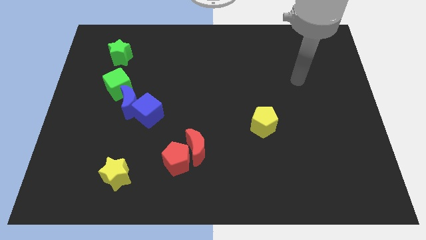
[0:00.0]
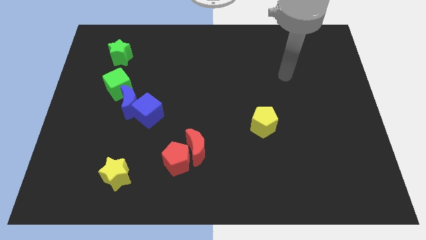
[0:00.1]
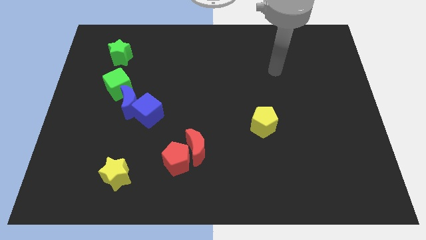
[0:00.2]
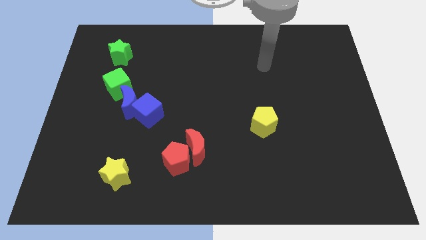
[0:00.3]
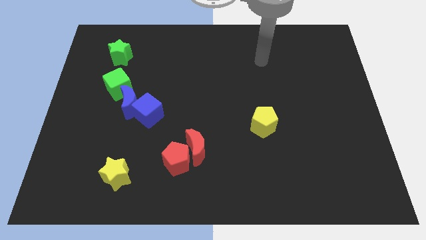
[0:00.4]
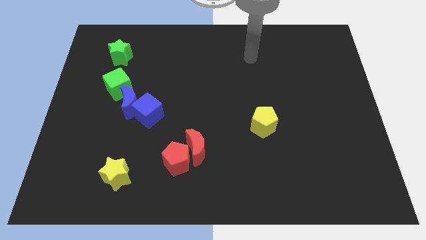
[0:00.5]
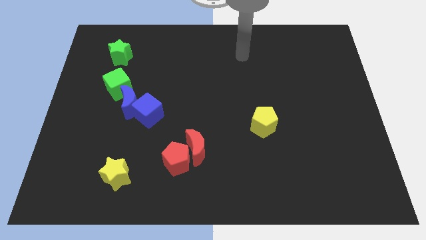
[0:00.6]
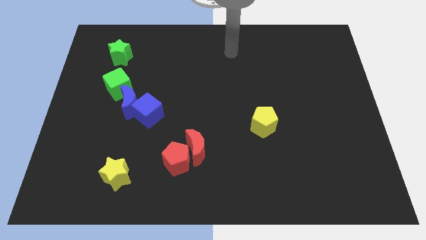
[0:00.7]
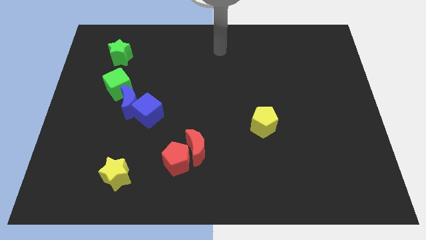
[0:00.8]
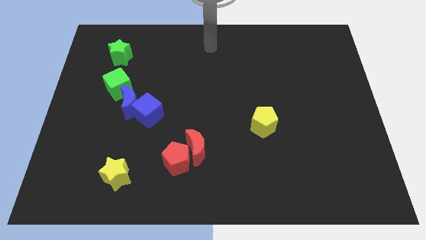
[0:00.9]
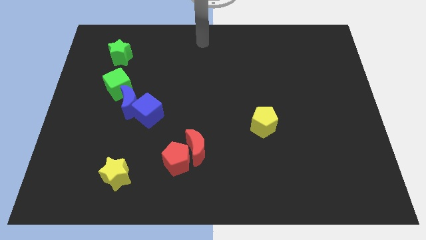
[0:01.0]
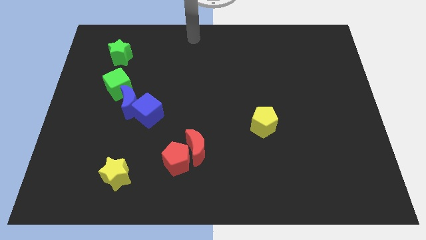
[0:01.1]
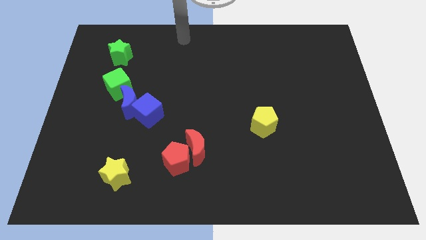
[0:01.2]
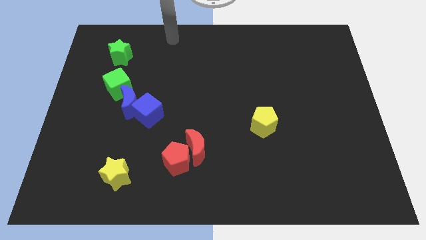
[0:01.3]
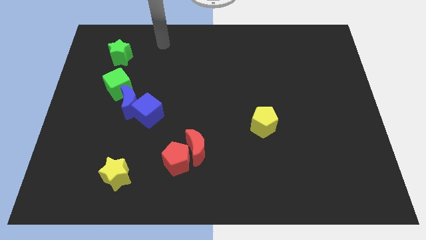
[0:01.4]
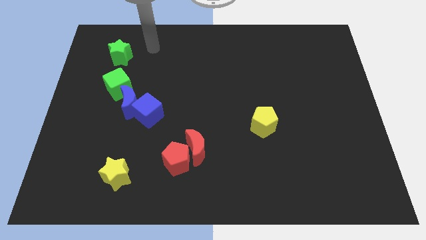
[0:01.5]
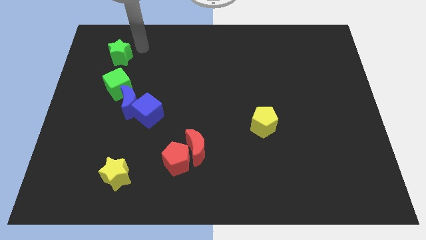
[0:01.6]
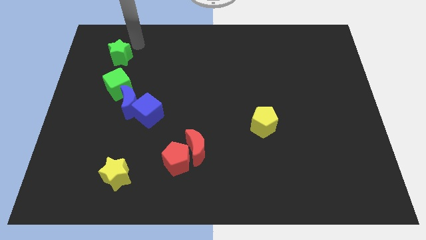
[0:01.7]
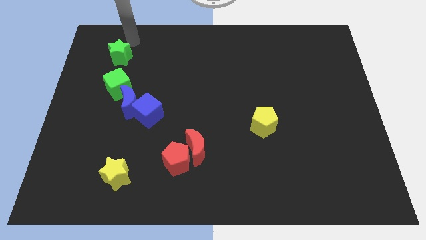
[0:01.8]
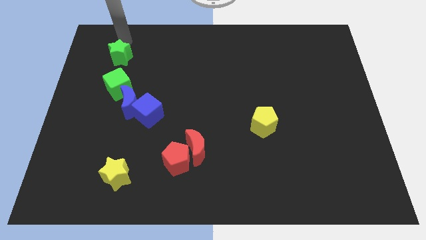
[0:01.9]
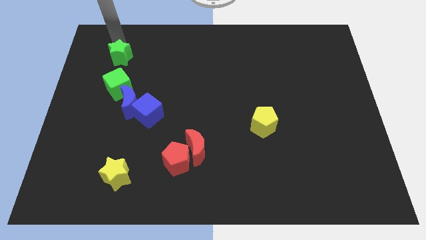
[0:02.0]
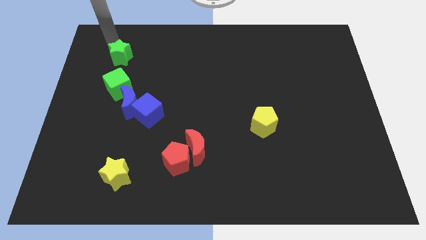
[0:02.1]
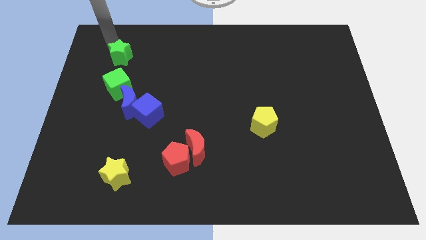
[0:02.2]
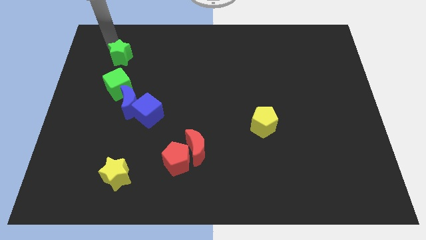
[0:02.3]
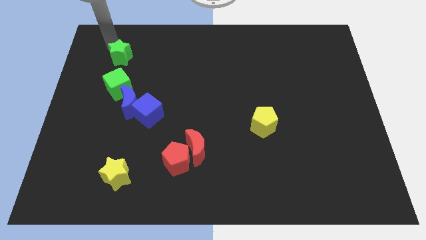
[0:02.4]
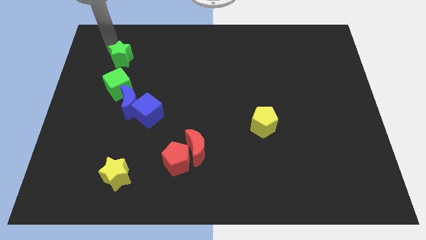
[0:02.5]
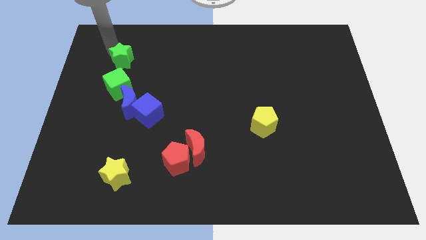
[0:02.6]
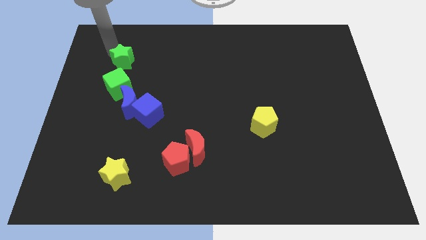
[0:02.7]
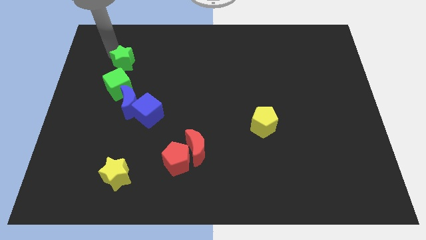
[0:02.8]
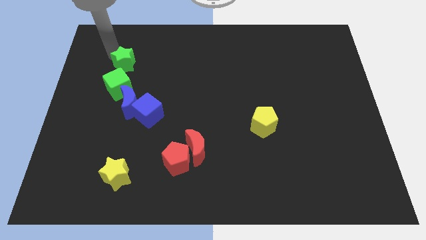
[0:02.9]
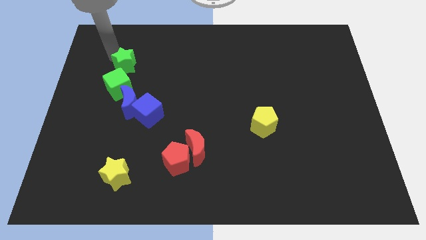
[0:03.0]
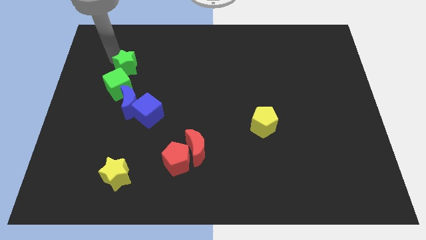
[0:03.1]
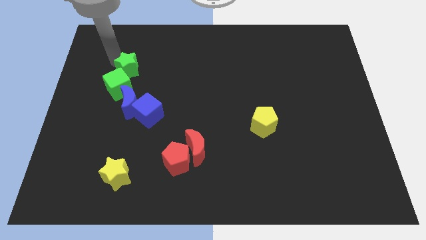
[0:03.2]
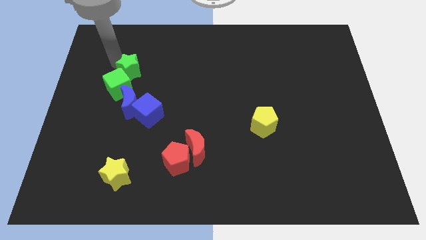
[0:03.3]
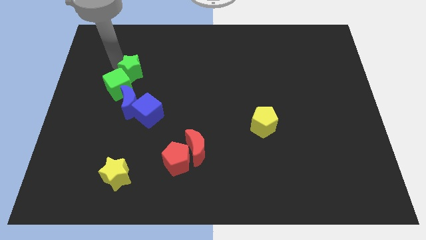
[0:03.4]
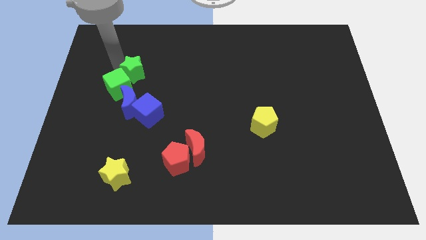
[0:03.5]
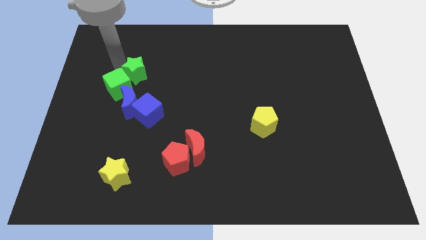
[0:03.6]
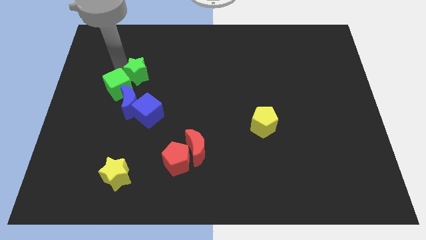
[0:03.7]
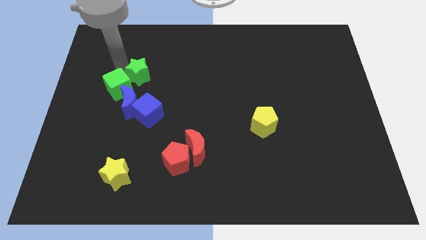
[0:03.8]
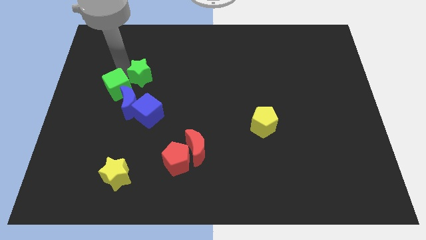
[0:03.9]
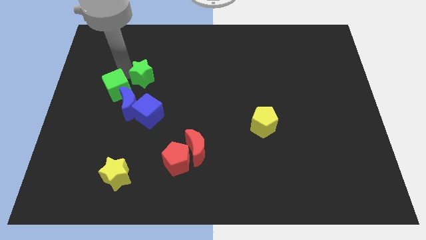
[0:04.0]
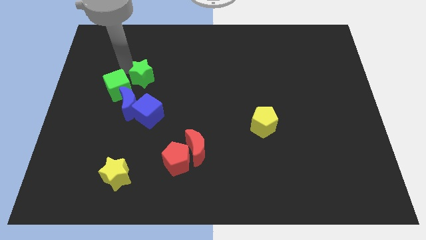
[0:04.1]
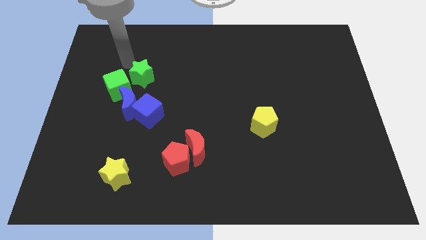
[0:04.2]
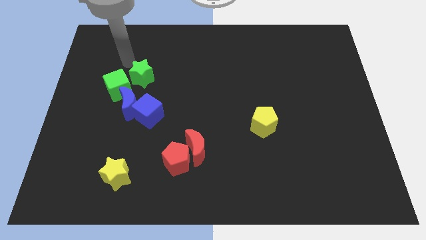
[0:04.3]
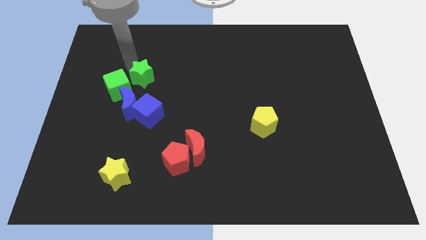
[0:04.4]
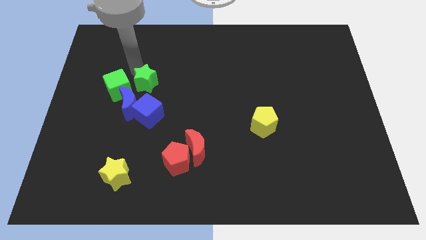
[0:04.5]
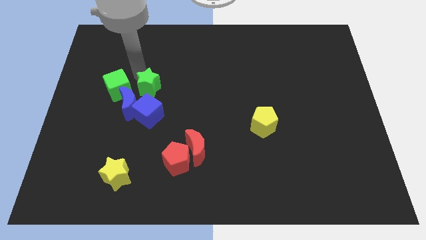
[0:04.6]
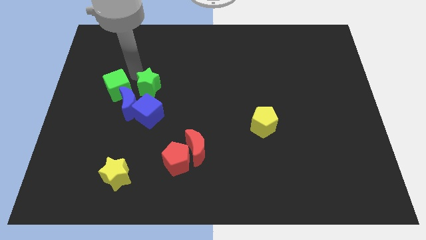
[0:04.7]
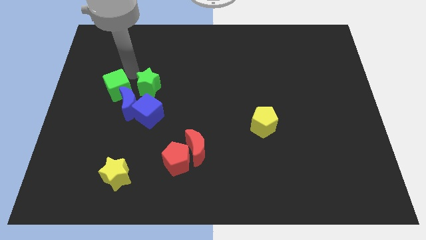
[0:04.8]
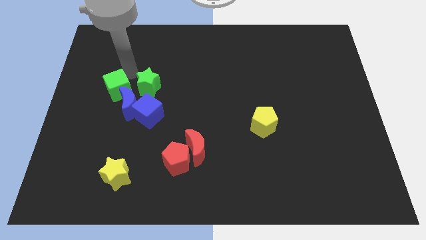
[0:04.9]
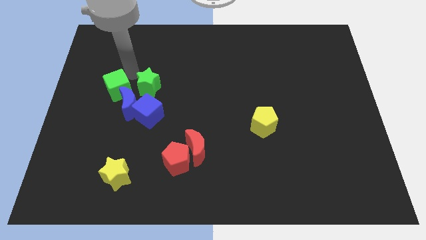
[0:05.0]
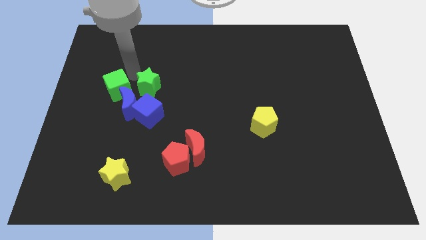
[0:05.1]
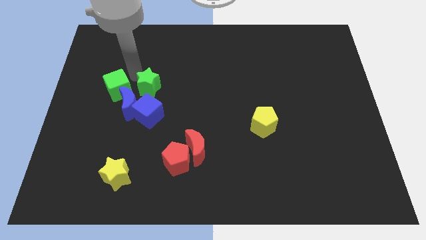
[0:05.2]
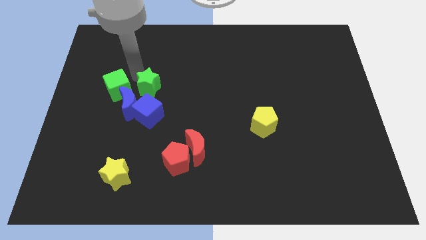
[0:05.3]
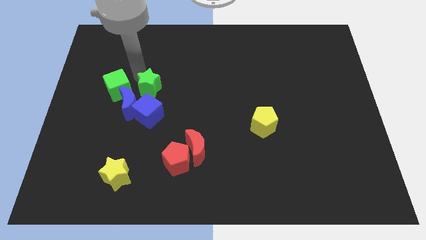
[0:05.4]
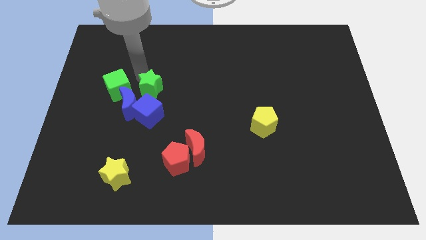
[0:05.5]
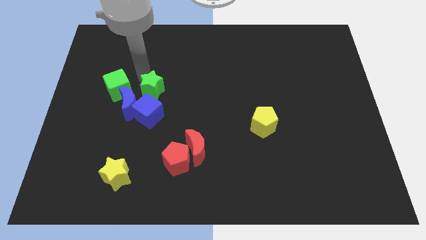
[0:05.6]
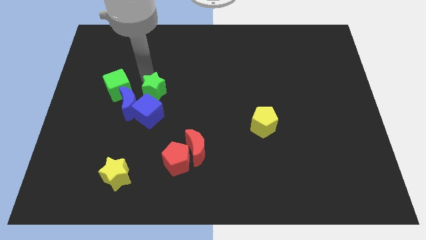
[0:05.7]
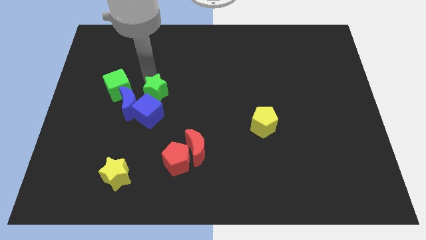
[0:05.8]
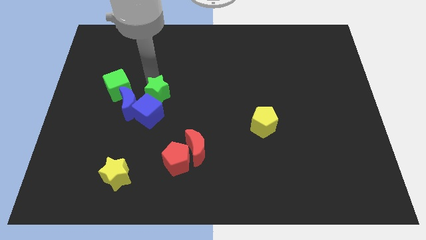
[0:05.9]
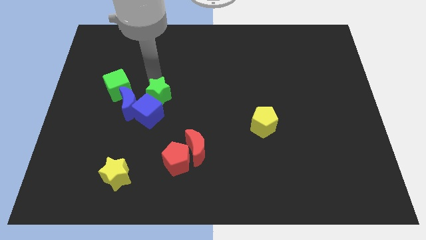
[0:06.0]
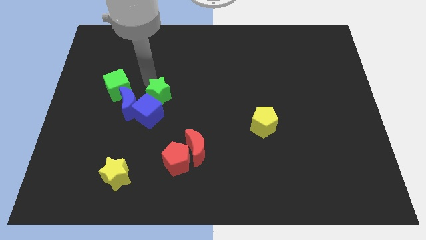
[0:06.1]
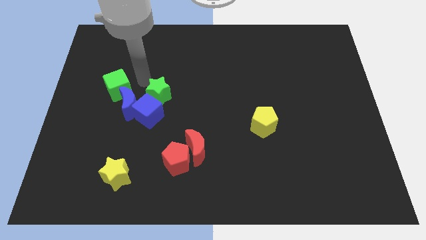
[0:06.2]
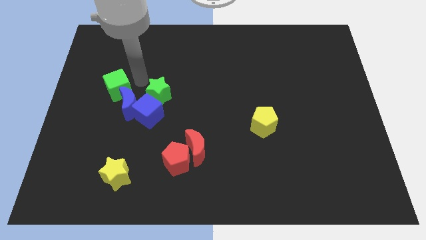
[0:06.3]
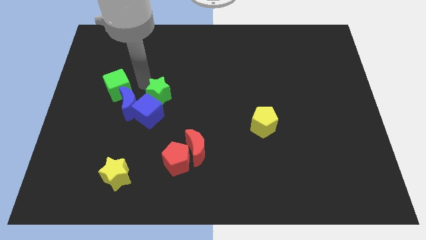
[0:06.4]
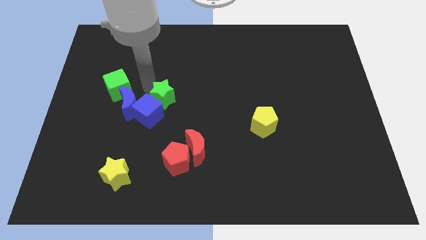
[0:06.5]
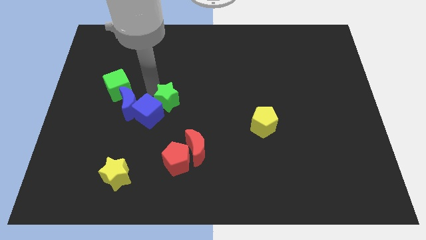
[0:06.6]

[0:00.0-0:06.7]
slide the green star down and then right

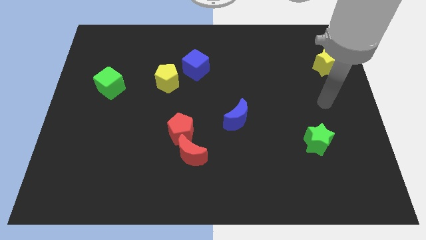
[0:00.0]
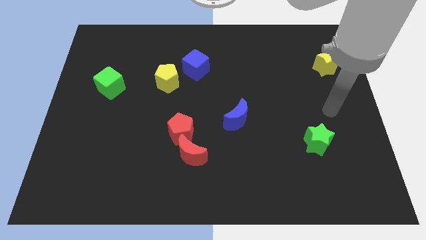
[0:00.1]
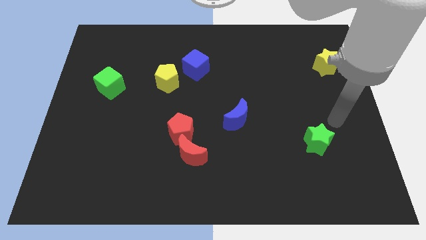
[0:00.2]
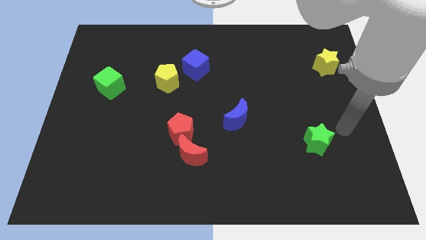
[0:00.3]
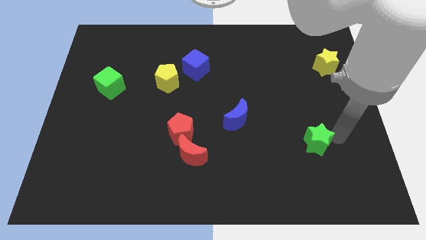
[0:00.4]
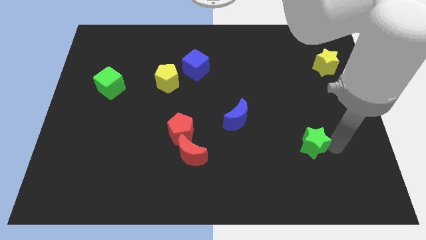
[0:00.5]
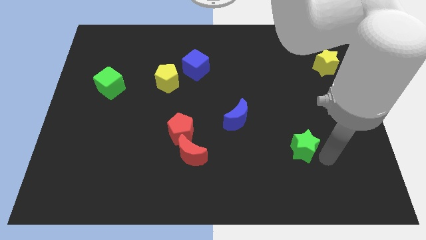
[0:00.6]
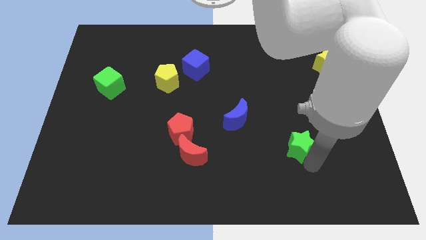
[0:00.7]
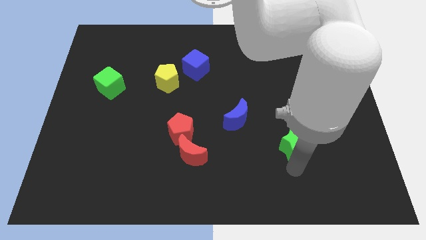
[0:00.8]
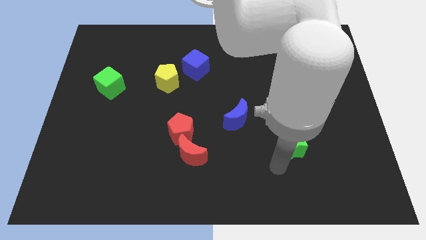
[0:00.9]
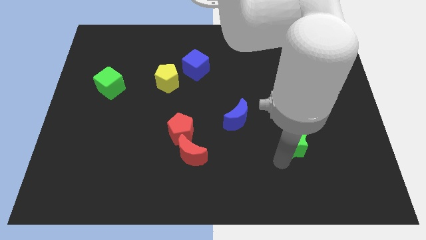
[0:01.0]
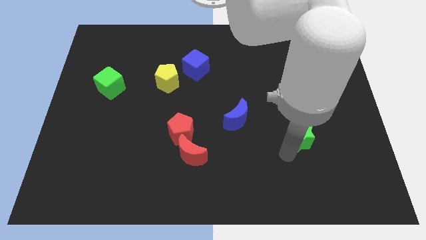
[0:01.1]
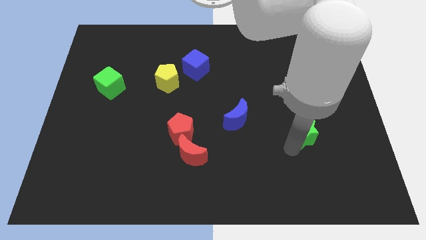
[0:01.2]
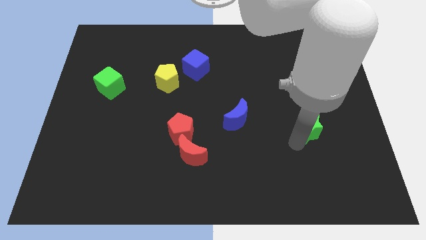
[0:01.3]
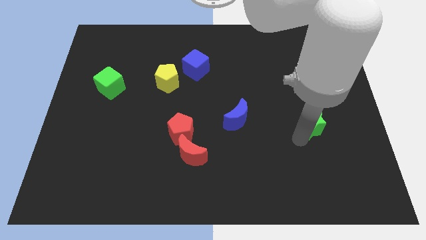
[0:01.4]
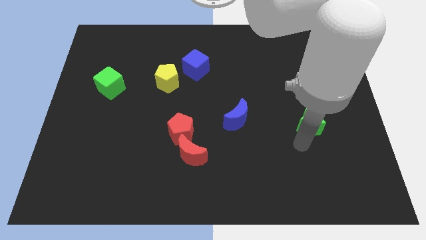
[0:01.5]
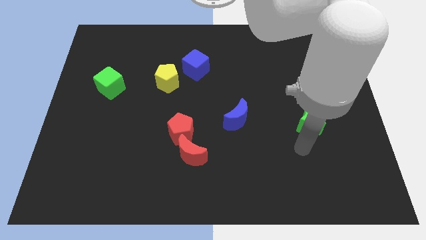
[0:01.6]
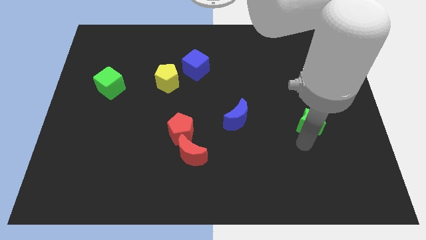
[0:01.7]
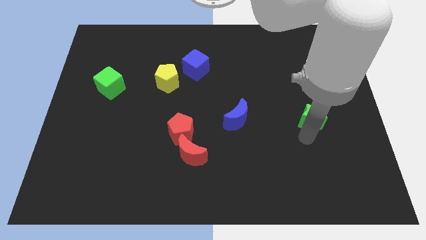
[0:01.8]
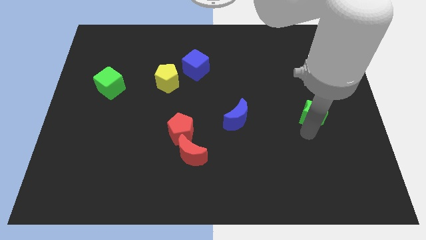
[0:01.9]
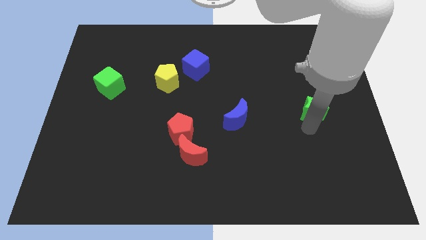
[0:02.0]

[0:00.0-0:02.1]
move the green star slightly upwards
